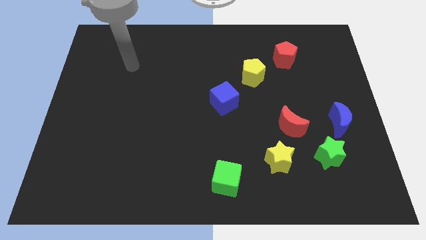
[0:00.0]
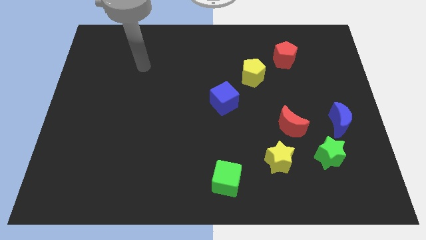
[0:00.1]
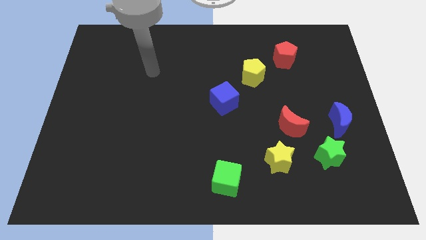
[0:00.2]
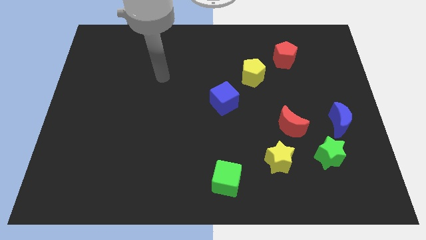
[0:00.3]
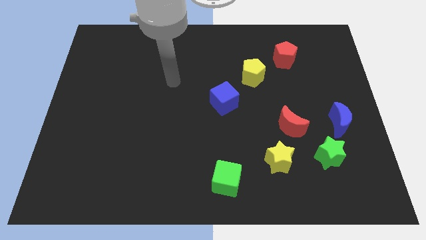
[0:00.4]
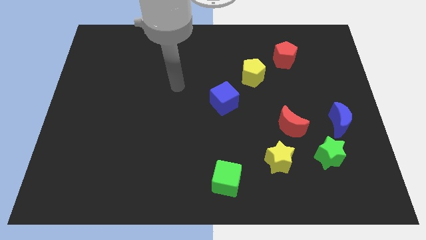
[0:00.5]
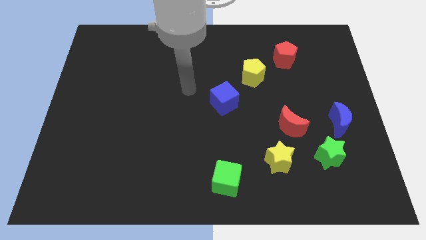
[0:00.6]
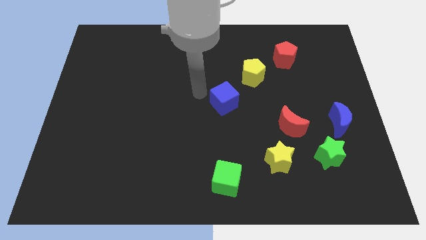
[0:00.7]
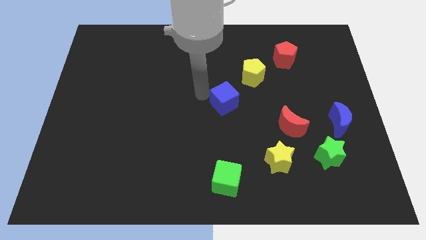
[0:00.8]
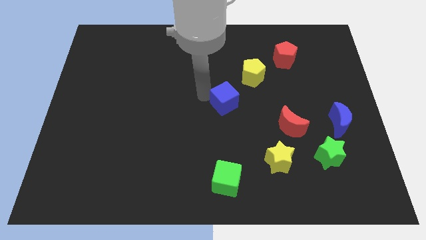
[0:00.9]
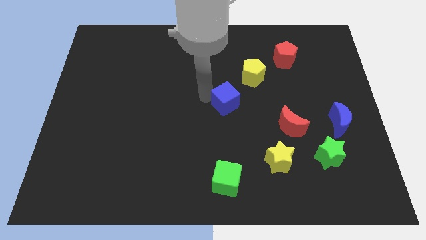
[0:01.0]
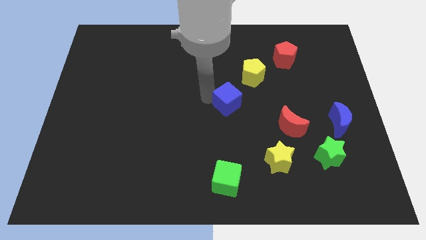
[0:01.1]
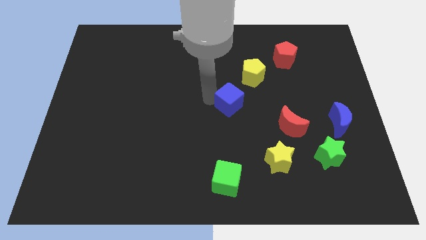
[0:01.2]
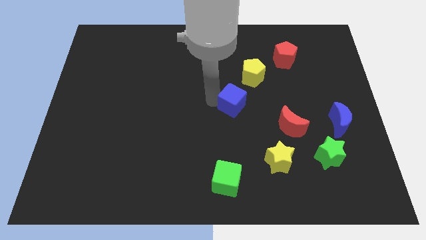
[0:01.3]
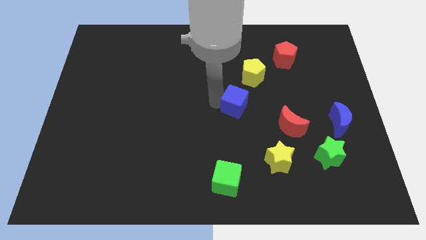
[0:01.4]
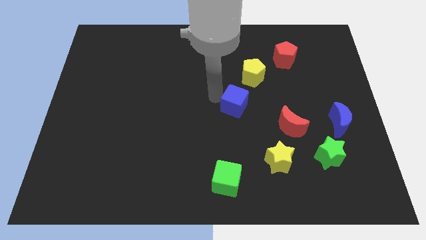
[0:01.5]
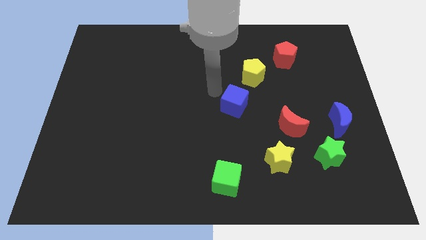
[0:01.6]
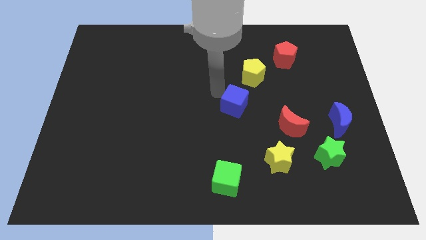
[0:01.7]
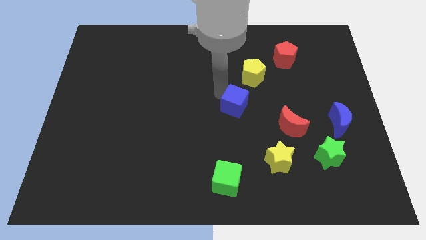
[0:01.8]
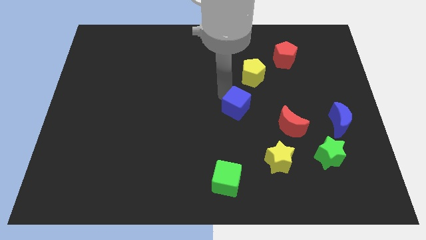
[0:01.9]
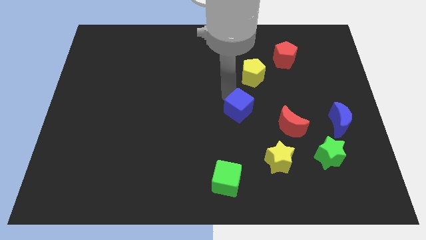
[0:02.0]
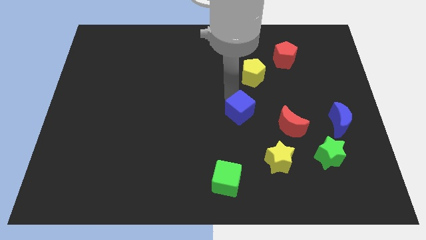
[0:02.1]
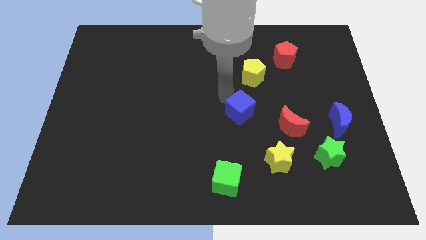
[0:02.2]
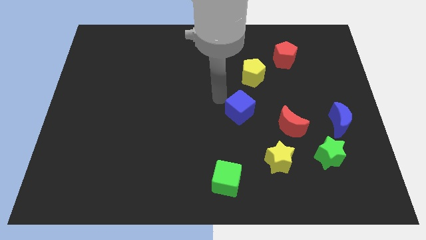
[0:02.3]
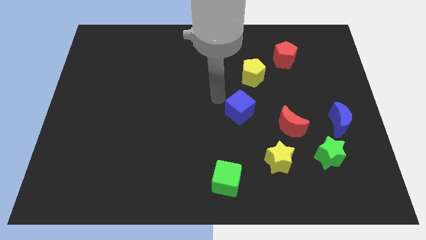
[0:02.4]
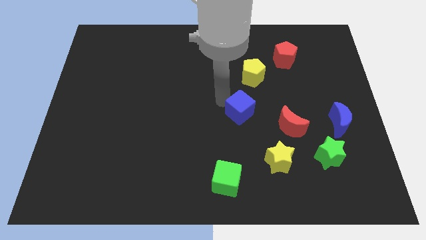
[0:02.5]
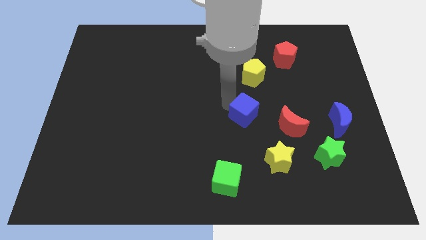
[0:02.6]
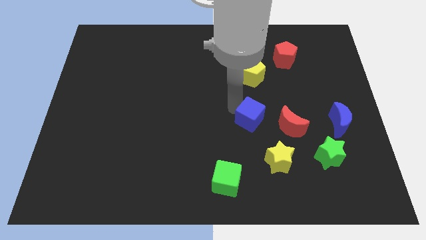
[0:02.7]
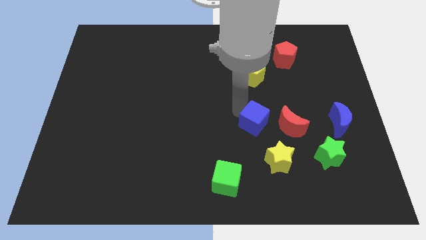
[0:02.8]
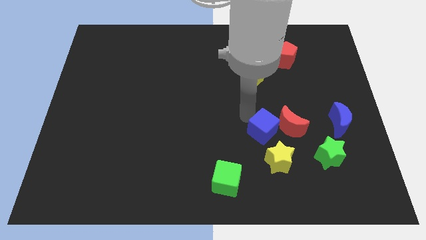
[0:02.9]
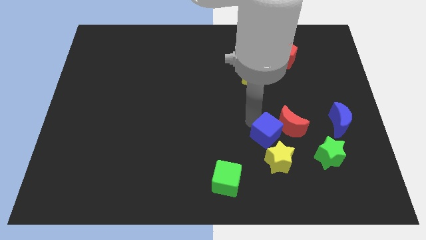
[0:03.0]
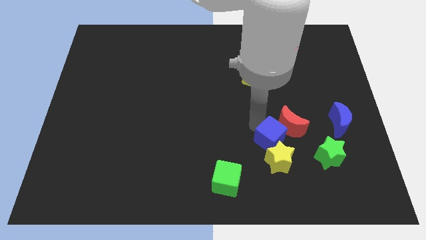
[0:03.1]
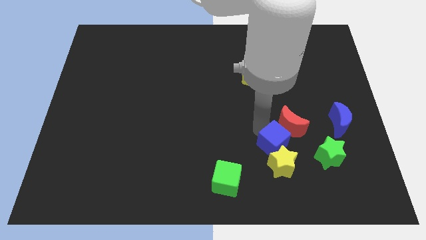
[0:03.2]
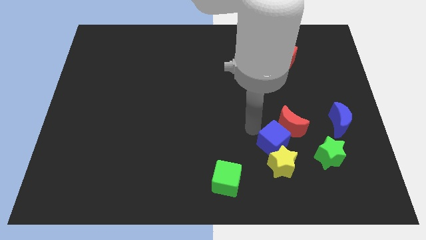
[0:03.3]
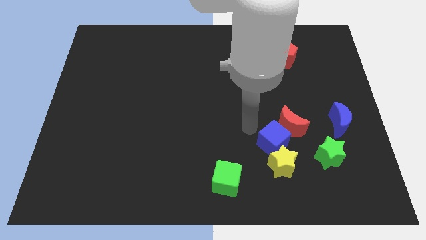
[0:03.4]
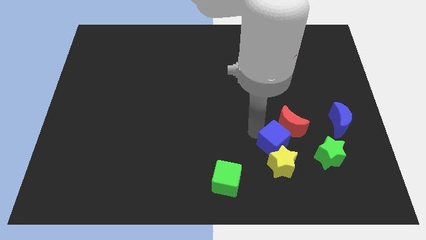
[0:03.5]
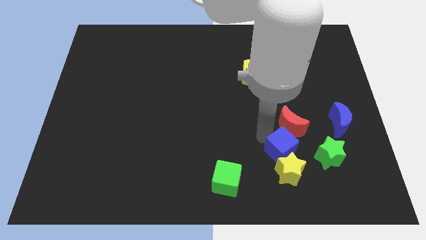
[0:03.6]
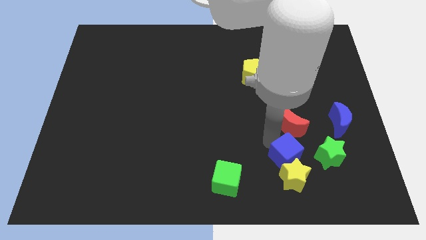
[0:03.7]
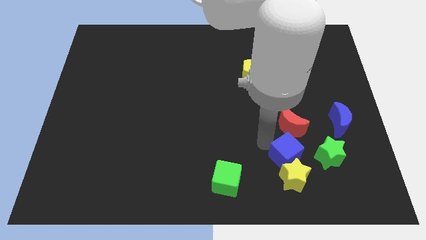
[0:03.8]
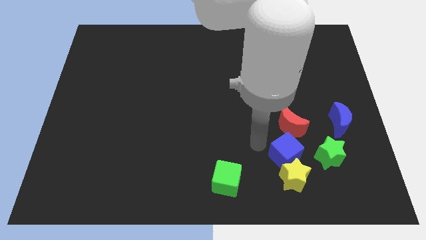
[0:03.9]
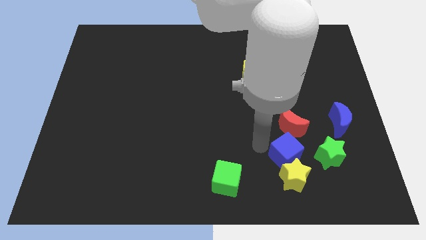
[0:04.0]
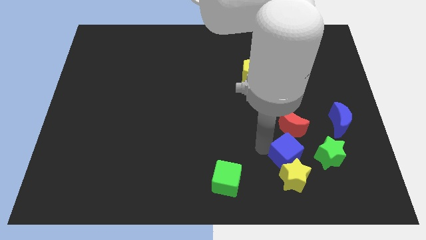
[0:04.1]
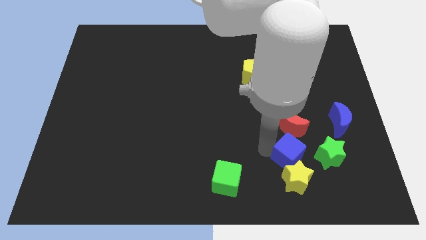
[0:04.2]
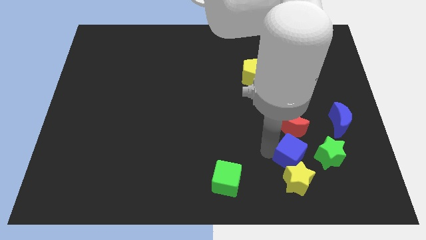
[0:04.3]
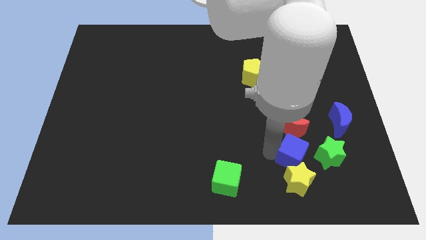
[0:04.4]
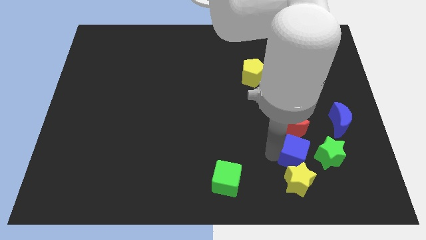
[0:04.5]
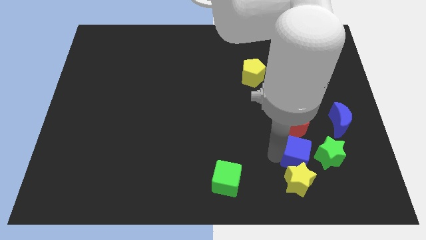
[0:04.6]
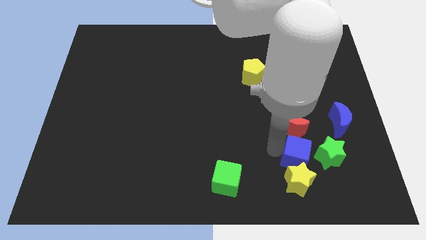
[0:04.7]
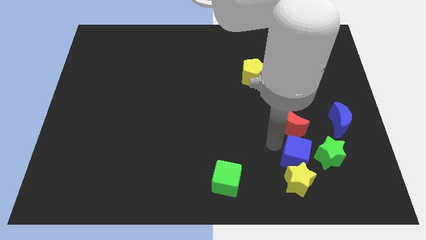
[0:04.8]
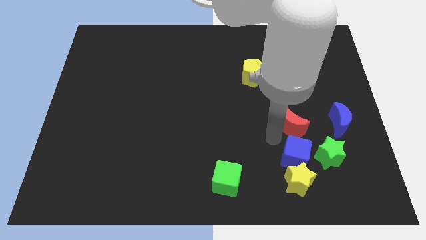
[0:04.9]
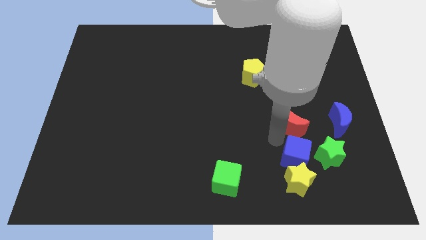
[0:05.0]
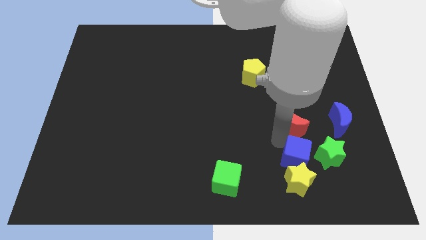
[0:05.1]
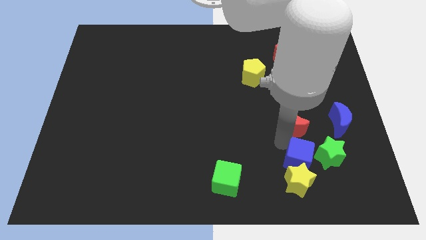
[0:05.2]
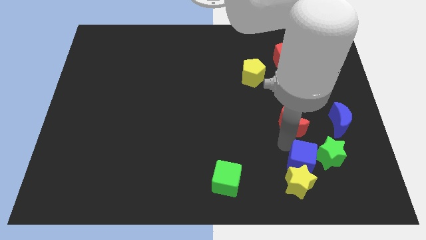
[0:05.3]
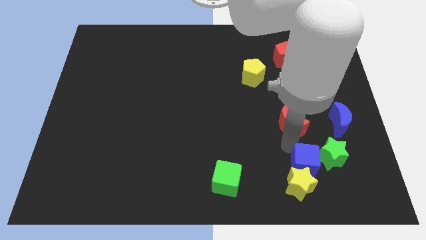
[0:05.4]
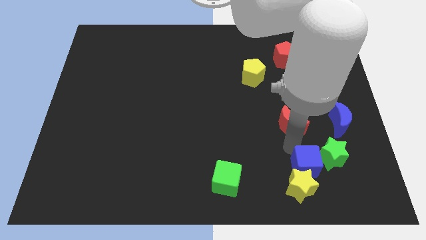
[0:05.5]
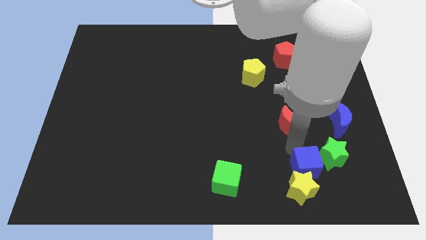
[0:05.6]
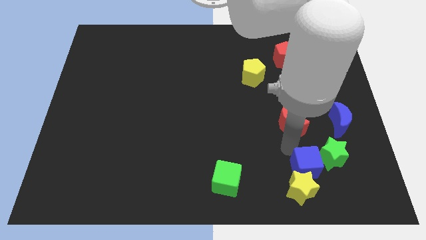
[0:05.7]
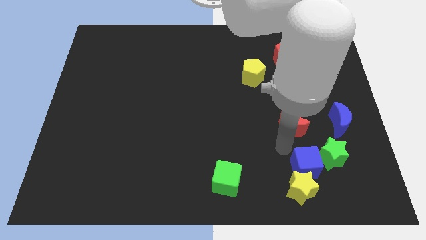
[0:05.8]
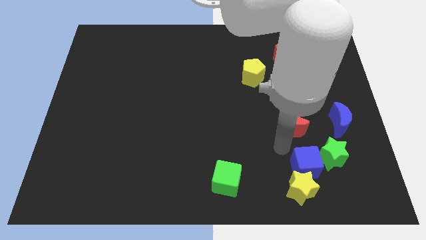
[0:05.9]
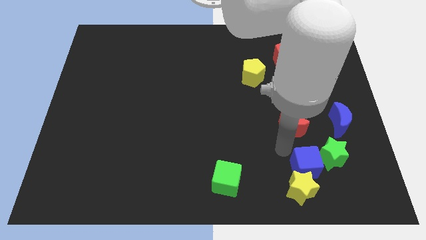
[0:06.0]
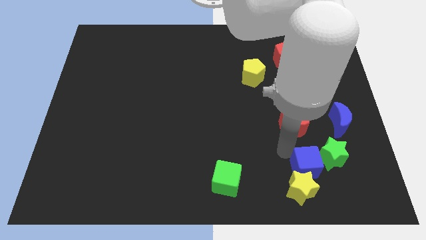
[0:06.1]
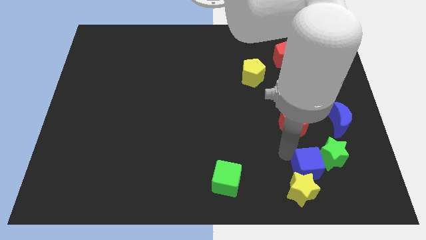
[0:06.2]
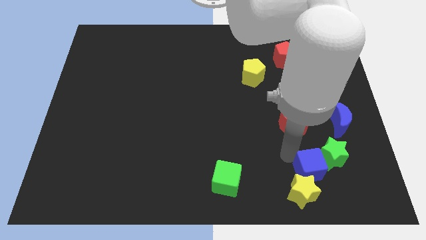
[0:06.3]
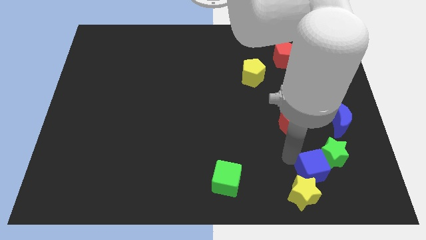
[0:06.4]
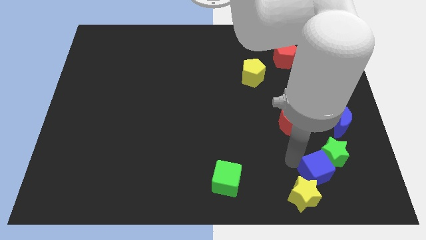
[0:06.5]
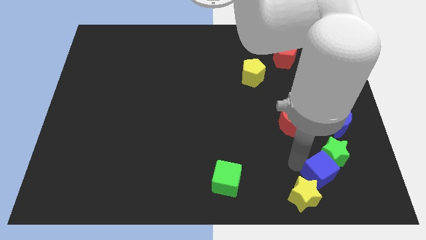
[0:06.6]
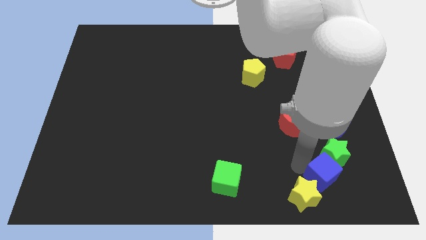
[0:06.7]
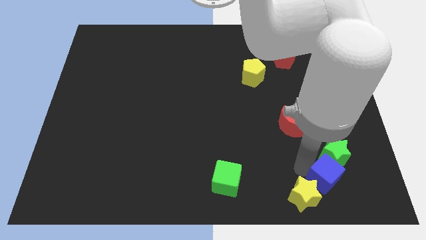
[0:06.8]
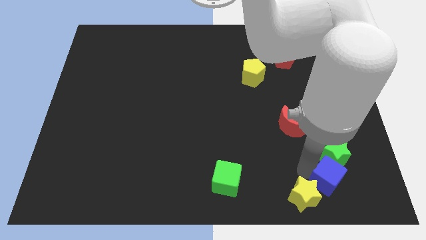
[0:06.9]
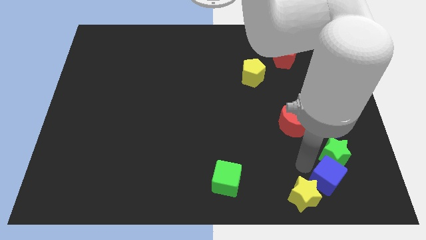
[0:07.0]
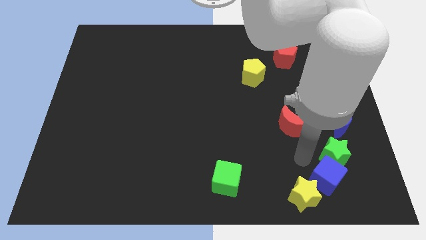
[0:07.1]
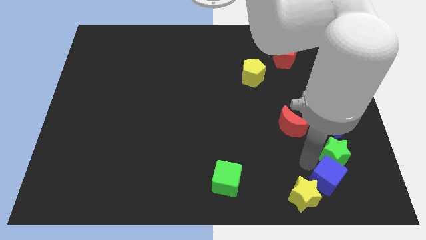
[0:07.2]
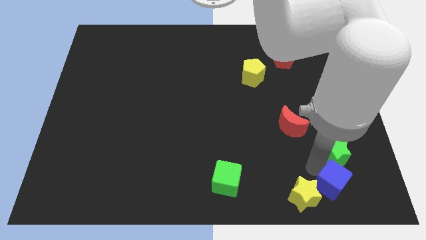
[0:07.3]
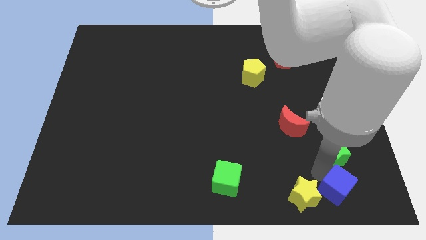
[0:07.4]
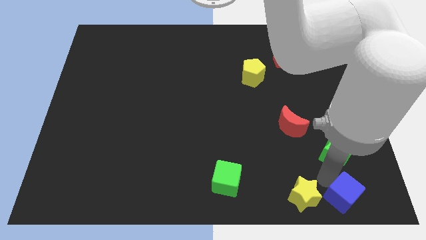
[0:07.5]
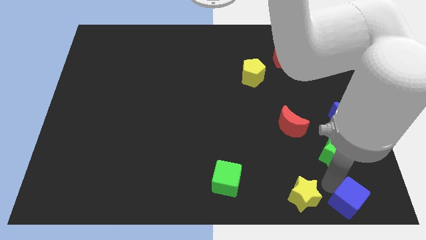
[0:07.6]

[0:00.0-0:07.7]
move the blue cube to the bottom right
